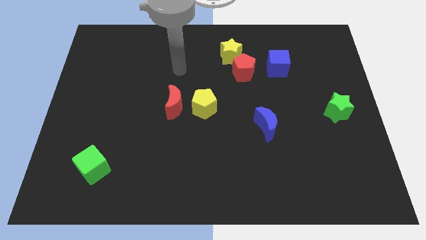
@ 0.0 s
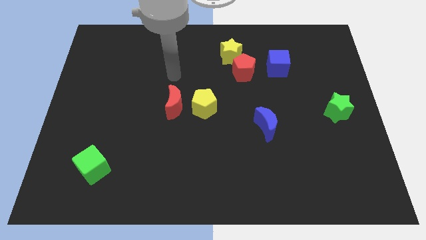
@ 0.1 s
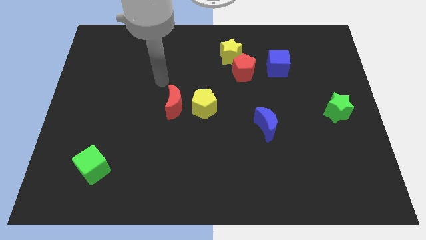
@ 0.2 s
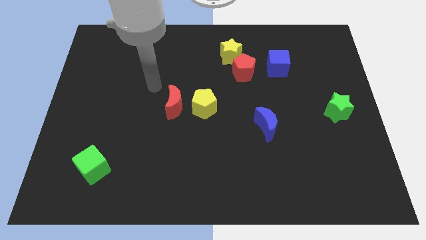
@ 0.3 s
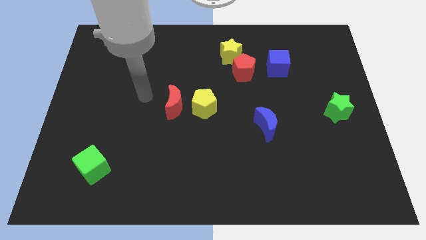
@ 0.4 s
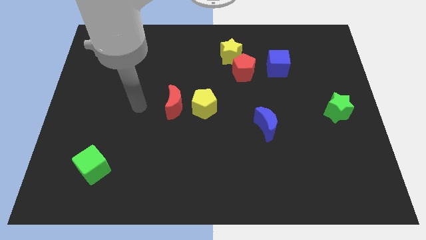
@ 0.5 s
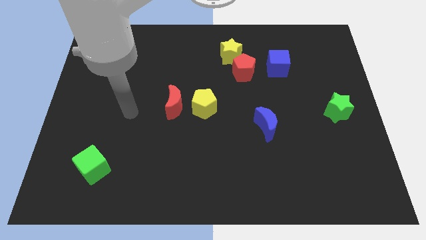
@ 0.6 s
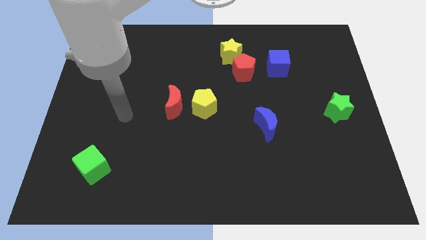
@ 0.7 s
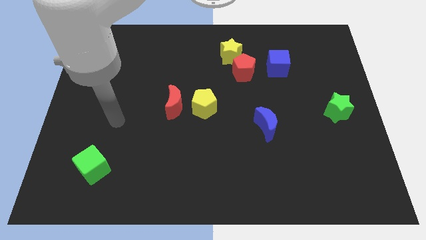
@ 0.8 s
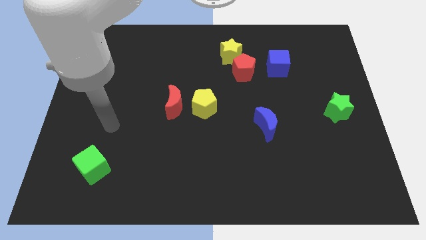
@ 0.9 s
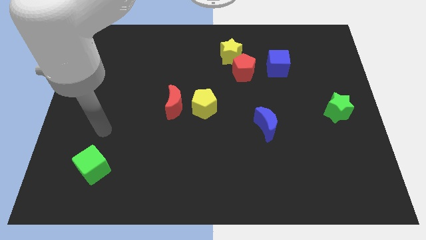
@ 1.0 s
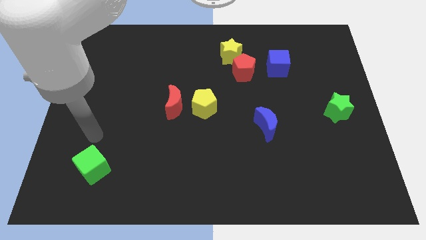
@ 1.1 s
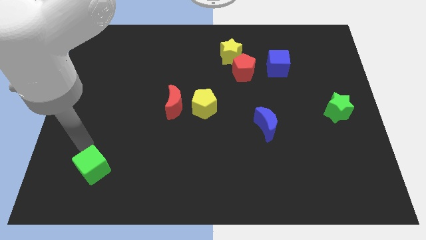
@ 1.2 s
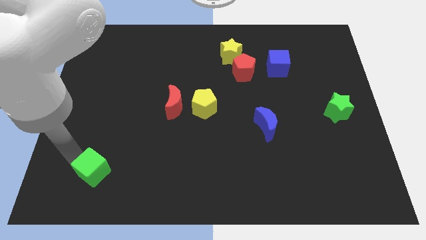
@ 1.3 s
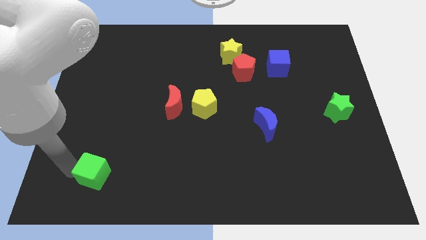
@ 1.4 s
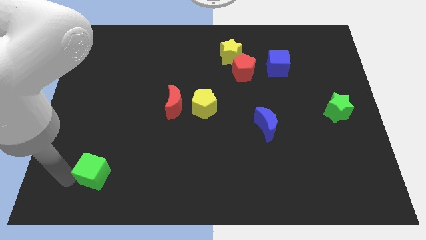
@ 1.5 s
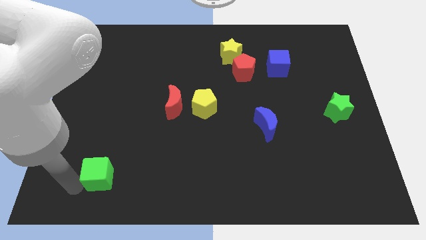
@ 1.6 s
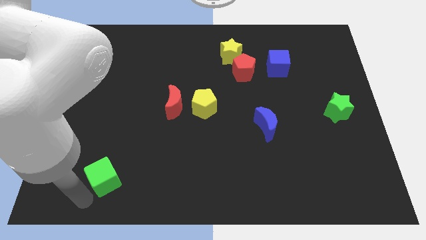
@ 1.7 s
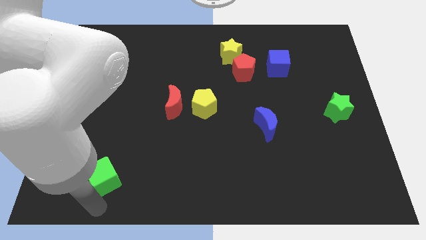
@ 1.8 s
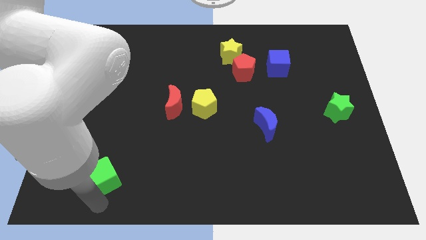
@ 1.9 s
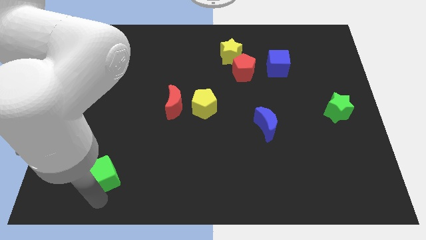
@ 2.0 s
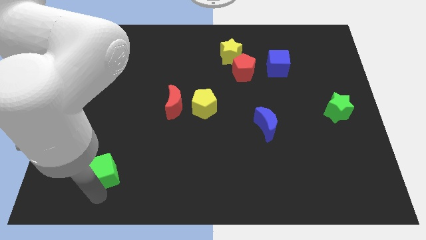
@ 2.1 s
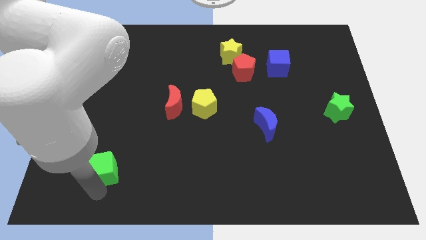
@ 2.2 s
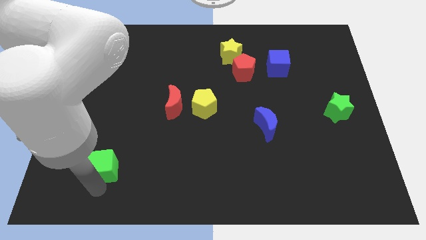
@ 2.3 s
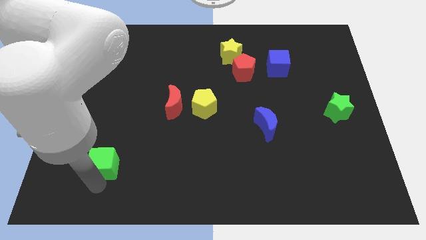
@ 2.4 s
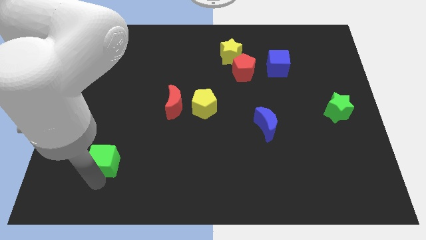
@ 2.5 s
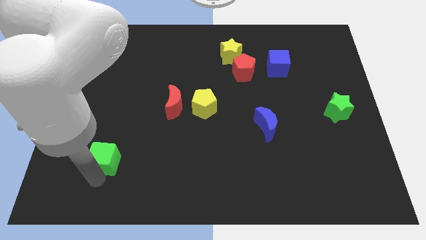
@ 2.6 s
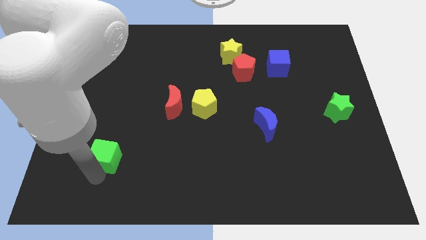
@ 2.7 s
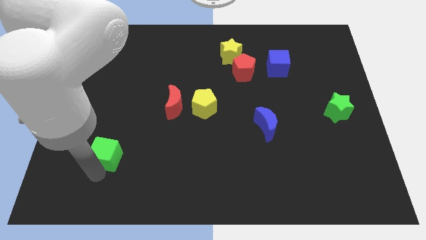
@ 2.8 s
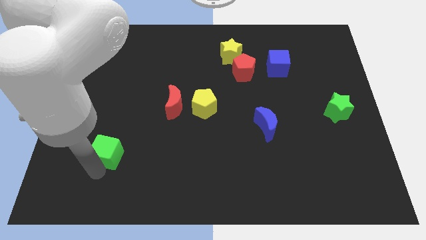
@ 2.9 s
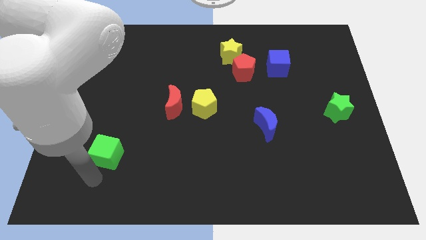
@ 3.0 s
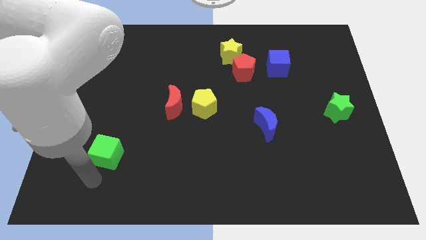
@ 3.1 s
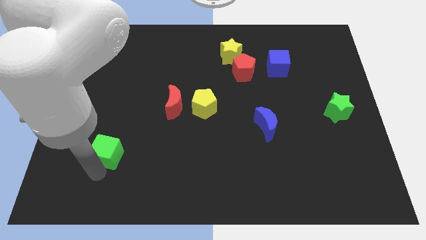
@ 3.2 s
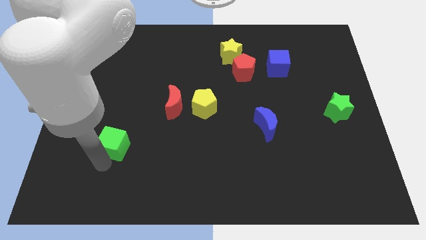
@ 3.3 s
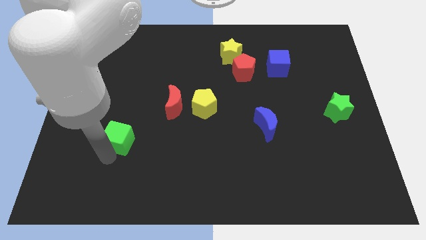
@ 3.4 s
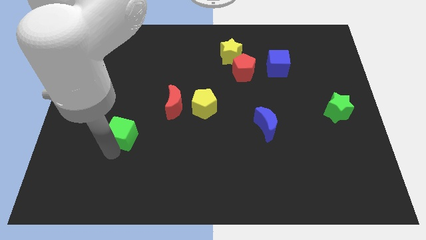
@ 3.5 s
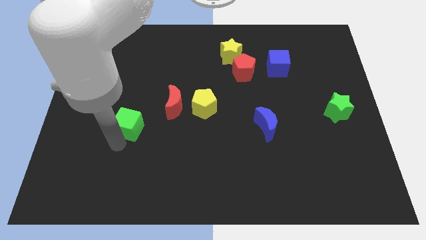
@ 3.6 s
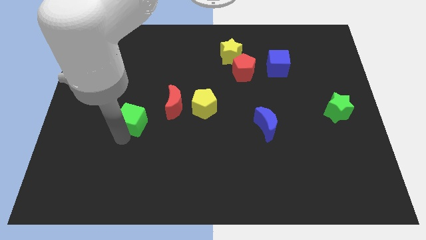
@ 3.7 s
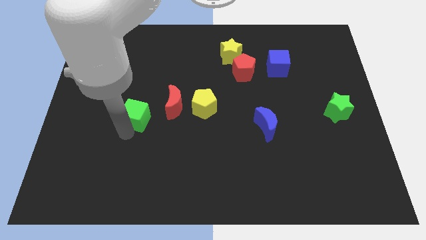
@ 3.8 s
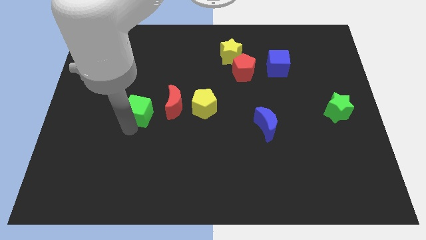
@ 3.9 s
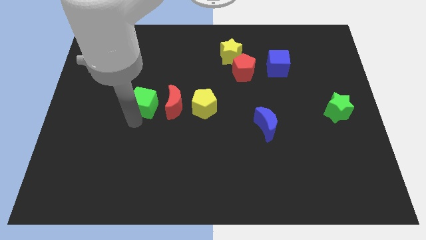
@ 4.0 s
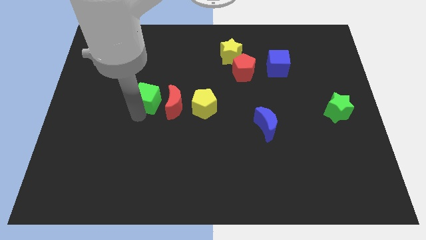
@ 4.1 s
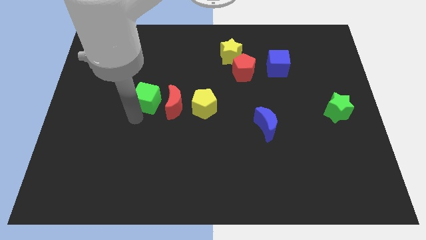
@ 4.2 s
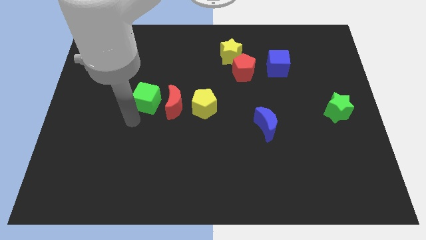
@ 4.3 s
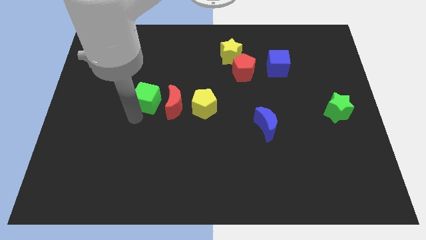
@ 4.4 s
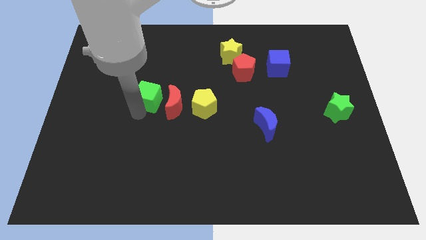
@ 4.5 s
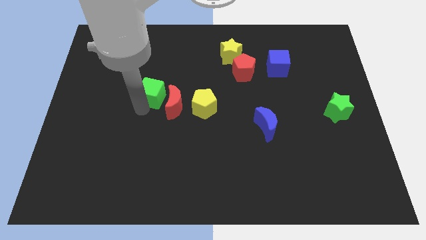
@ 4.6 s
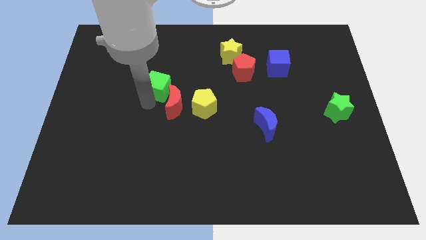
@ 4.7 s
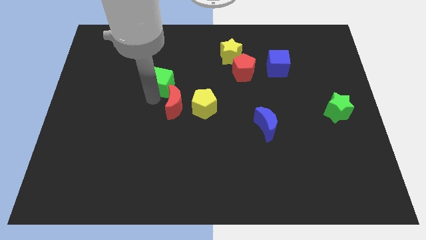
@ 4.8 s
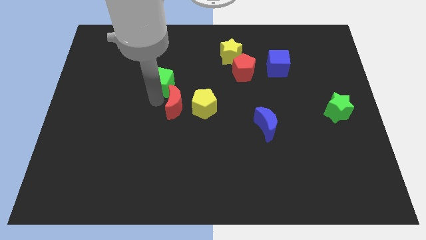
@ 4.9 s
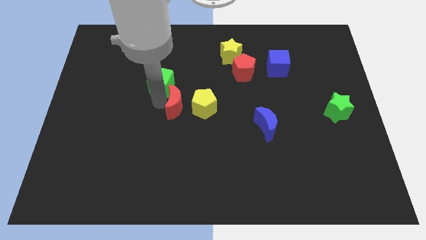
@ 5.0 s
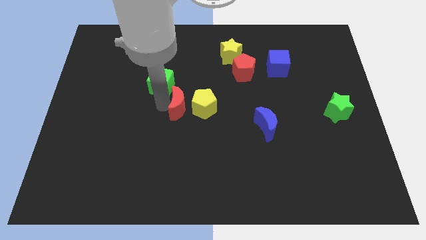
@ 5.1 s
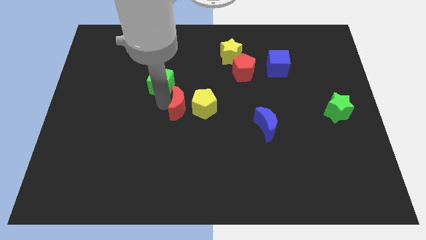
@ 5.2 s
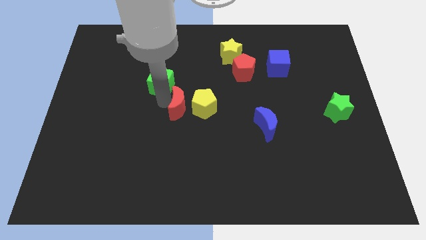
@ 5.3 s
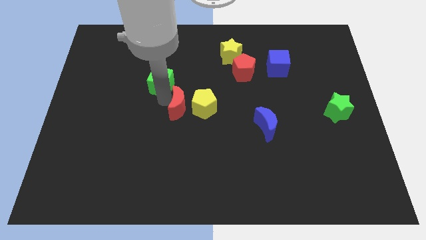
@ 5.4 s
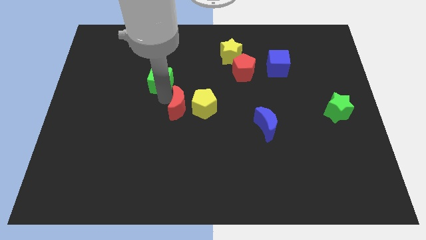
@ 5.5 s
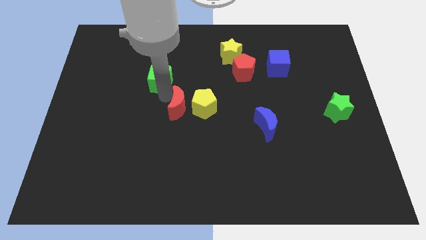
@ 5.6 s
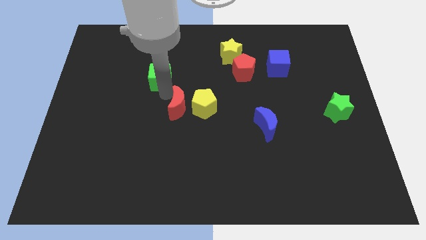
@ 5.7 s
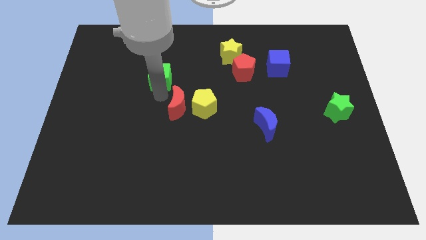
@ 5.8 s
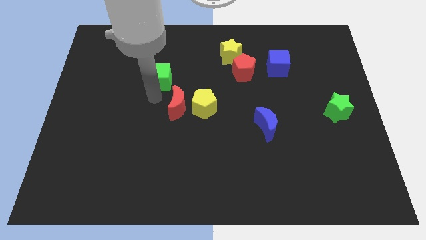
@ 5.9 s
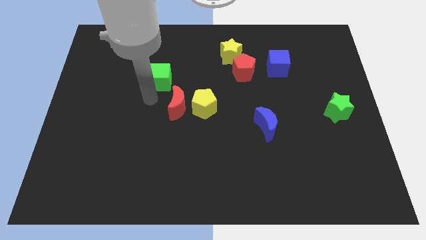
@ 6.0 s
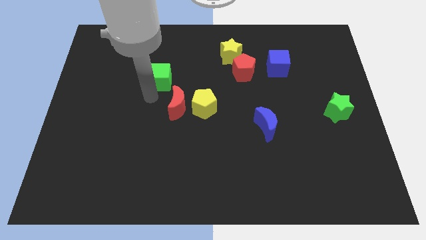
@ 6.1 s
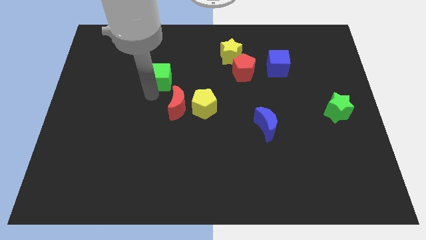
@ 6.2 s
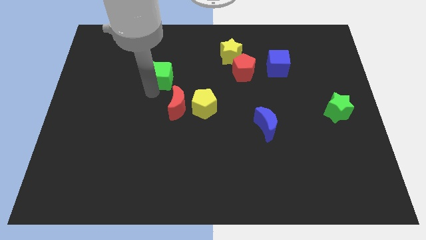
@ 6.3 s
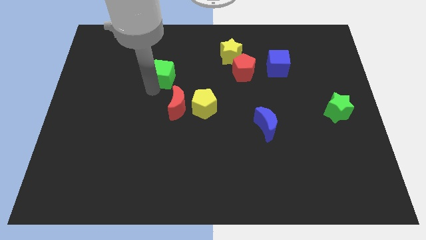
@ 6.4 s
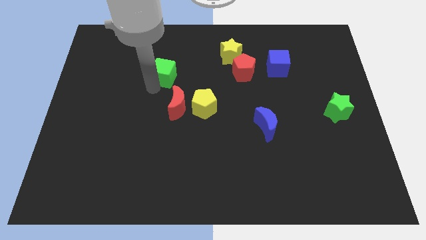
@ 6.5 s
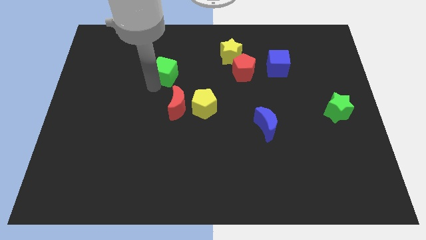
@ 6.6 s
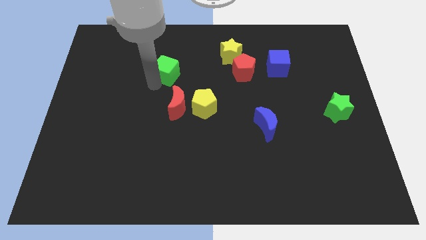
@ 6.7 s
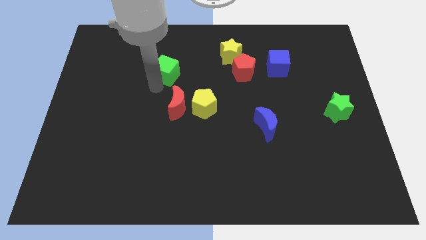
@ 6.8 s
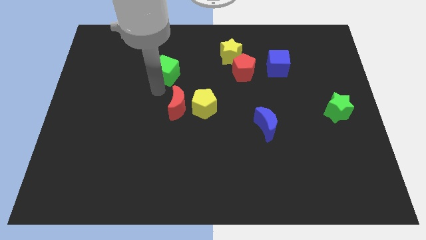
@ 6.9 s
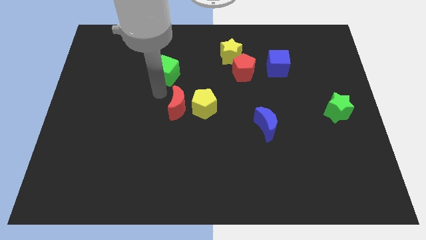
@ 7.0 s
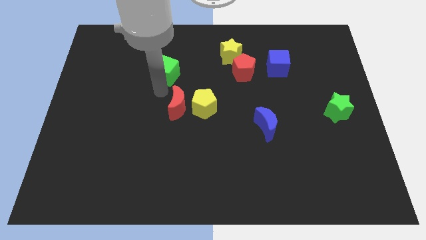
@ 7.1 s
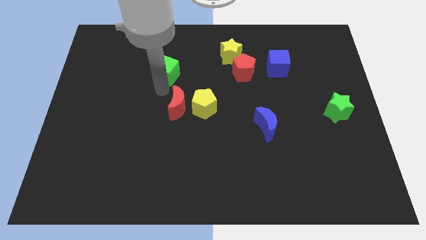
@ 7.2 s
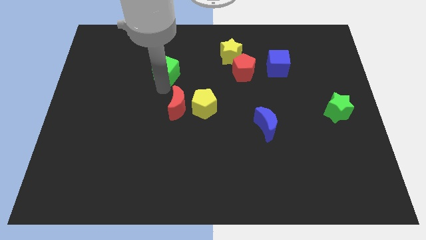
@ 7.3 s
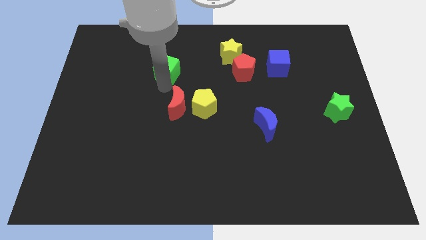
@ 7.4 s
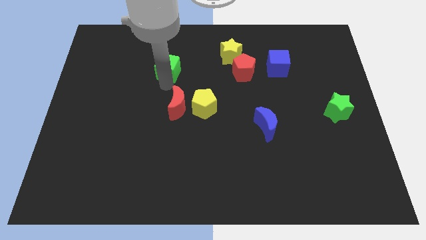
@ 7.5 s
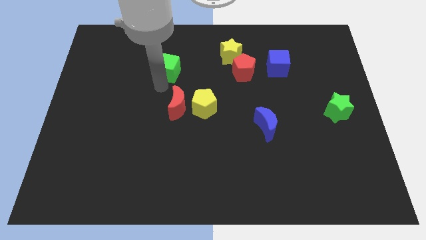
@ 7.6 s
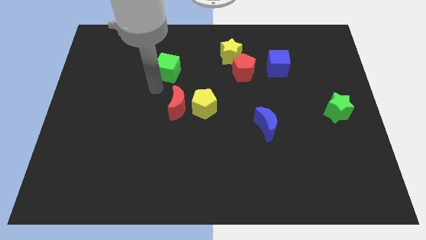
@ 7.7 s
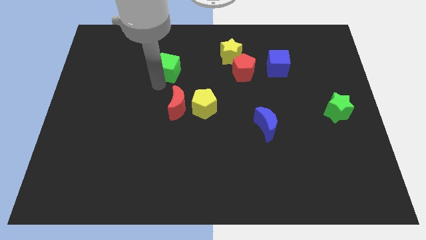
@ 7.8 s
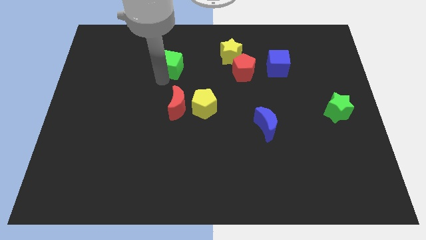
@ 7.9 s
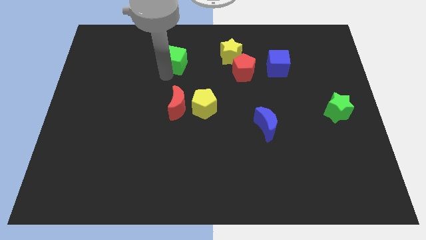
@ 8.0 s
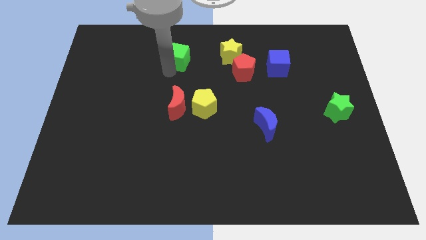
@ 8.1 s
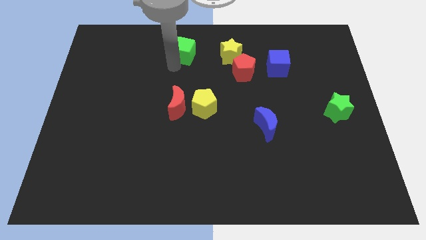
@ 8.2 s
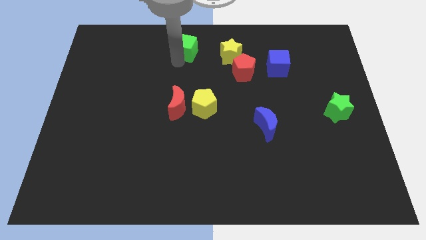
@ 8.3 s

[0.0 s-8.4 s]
slide the green cube to the towards your base
